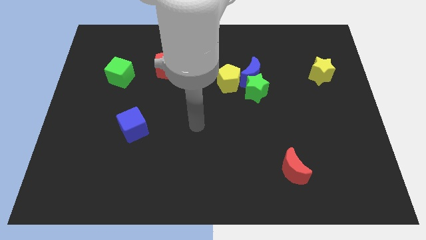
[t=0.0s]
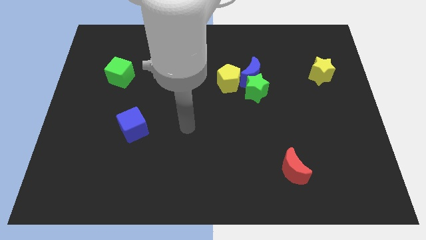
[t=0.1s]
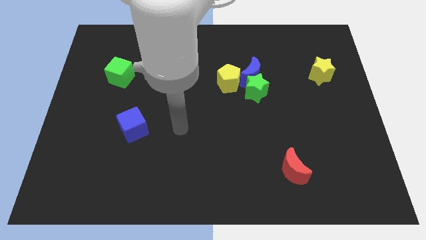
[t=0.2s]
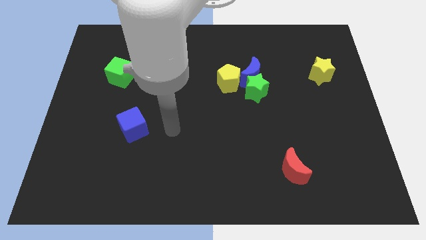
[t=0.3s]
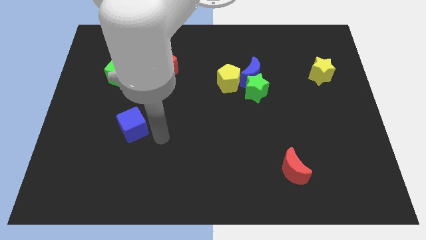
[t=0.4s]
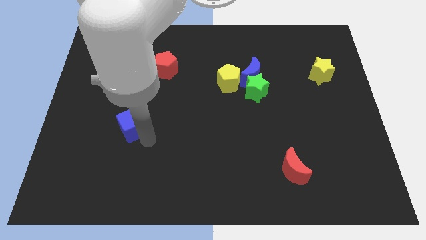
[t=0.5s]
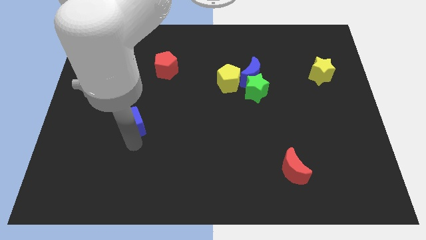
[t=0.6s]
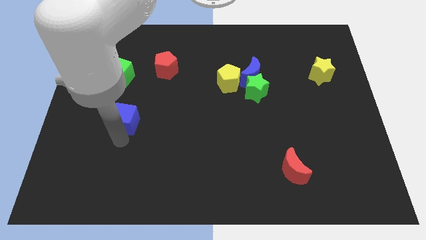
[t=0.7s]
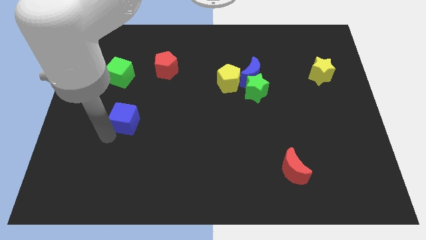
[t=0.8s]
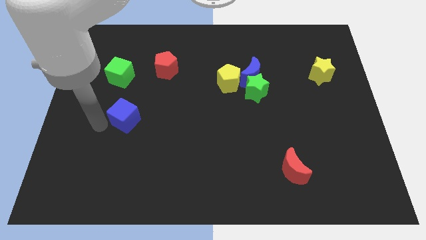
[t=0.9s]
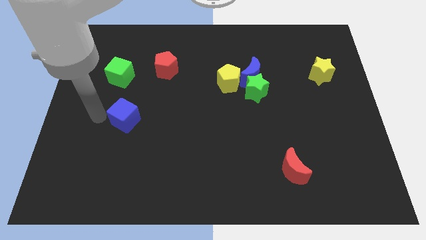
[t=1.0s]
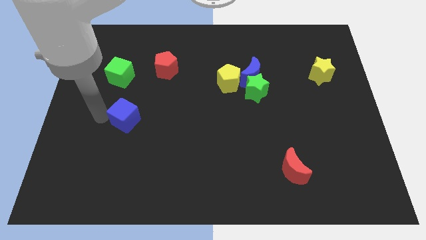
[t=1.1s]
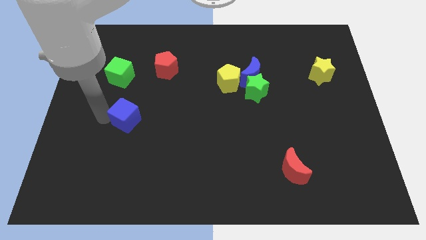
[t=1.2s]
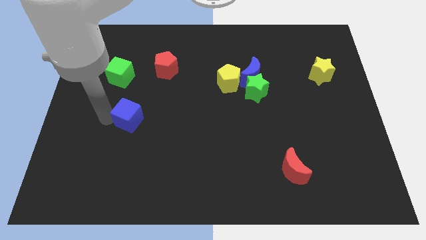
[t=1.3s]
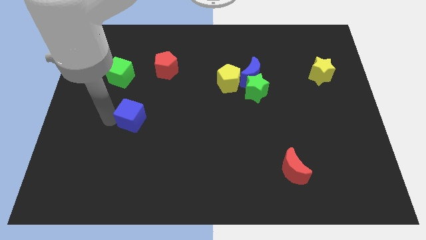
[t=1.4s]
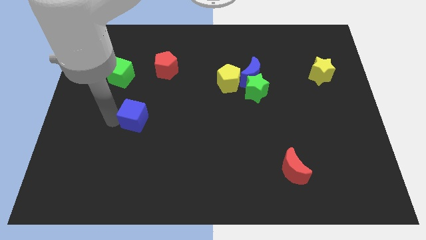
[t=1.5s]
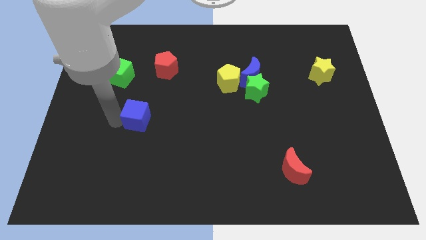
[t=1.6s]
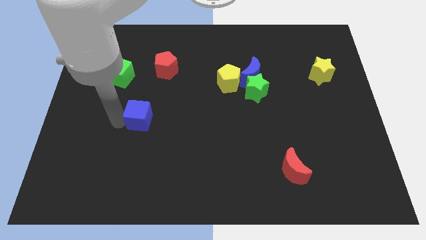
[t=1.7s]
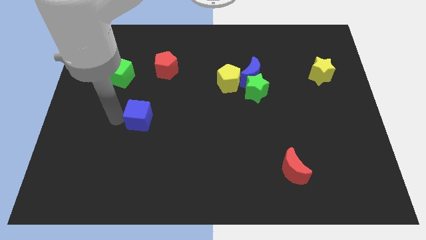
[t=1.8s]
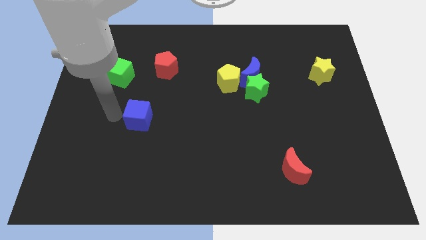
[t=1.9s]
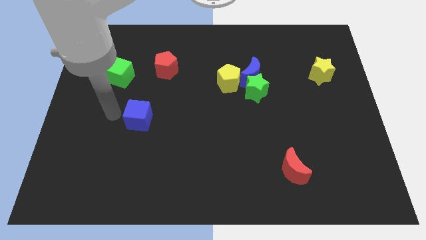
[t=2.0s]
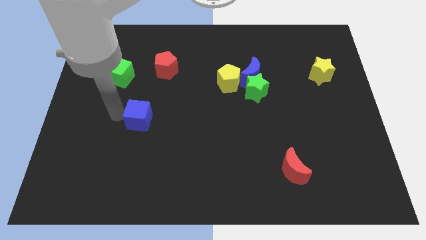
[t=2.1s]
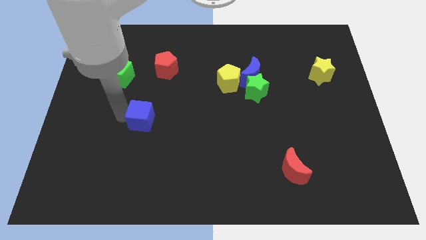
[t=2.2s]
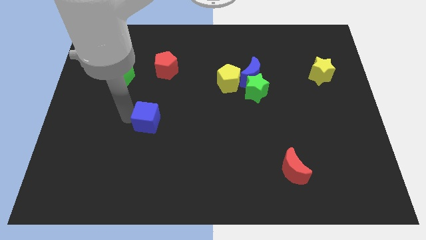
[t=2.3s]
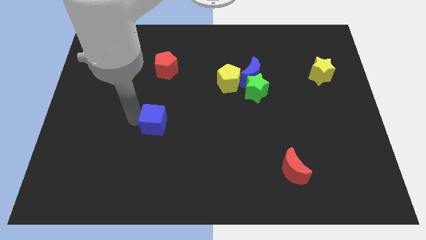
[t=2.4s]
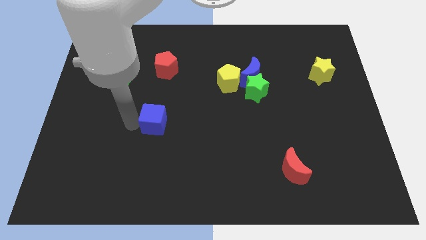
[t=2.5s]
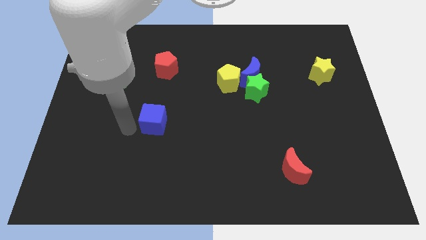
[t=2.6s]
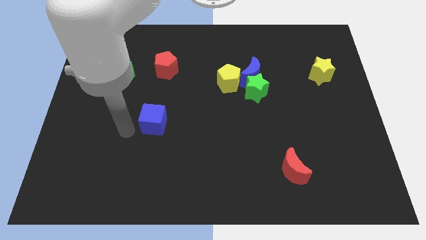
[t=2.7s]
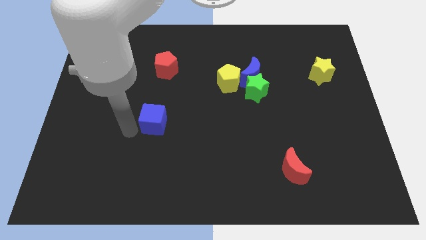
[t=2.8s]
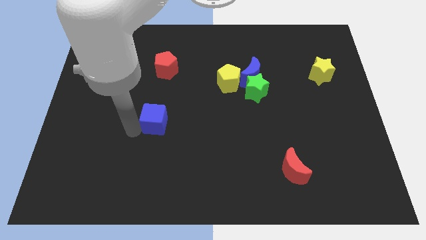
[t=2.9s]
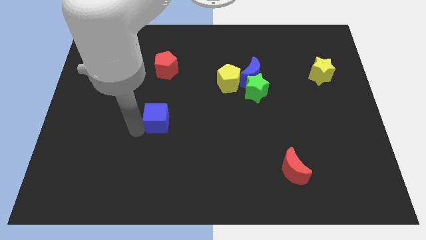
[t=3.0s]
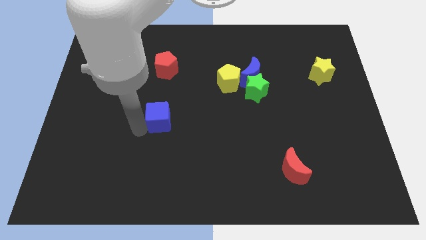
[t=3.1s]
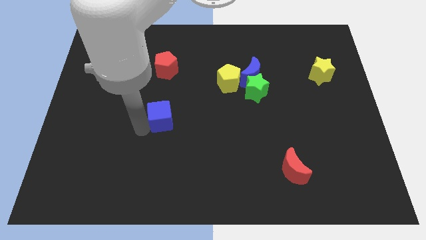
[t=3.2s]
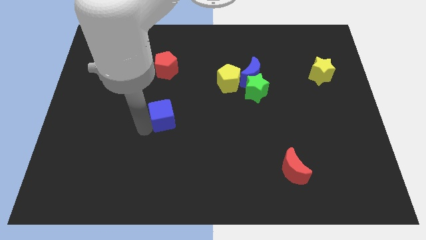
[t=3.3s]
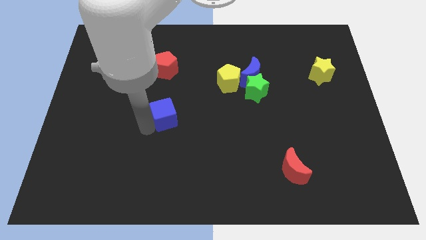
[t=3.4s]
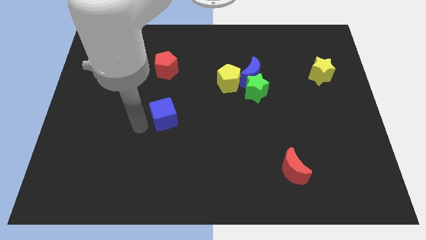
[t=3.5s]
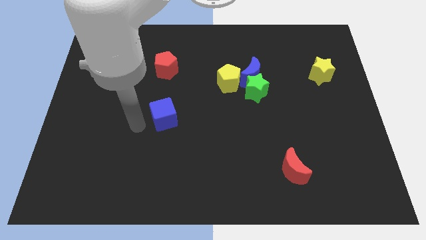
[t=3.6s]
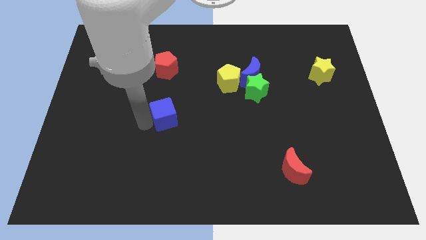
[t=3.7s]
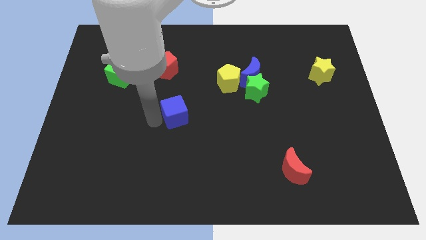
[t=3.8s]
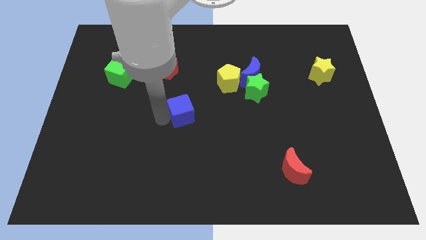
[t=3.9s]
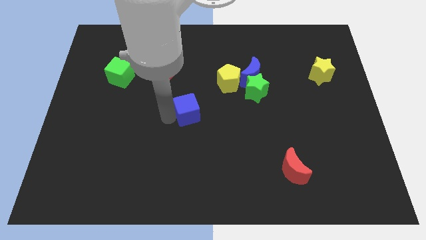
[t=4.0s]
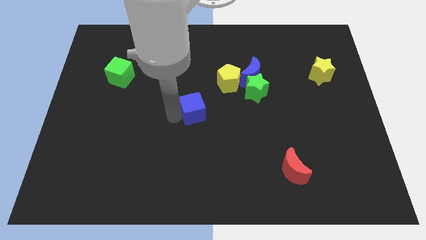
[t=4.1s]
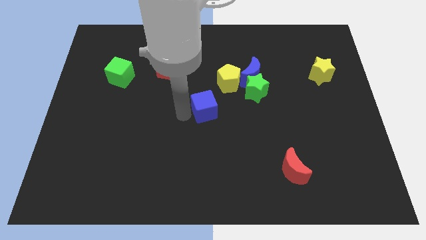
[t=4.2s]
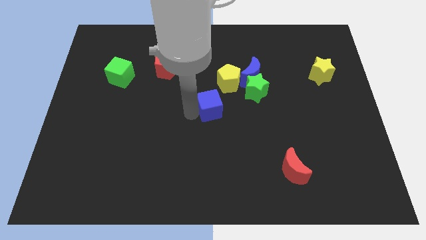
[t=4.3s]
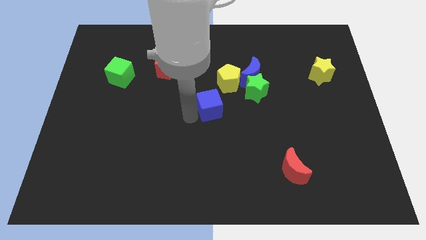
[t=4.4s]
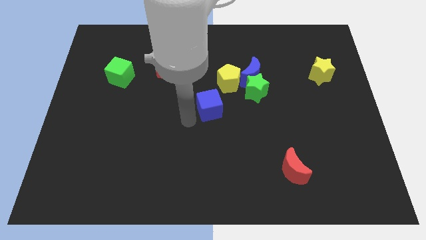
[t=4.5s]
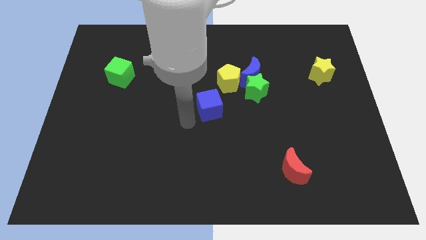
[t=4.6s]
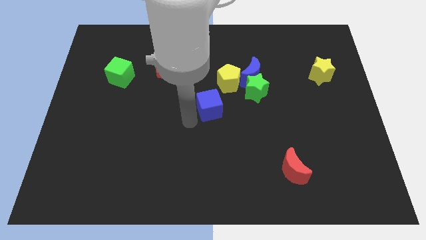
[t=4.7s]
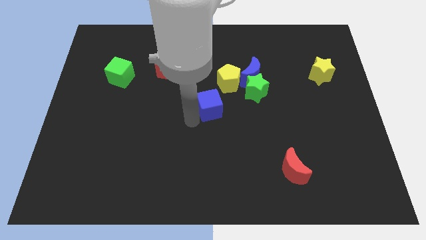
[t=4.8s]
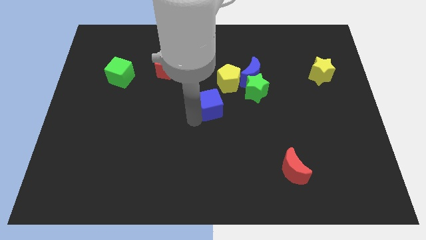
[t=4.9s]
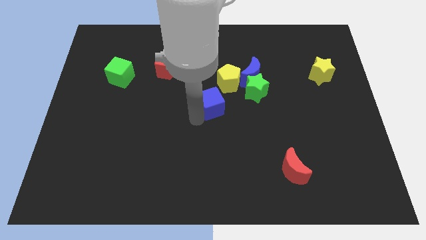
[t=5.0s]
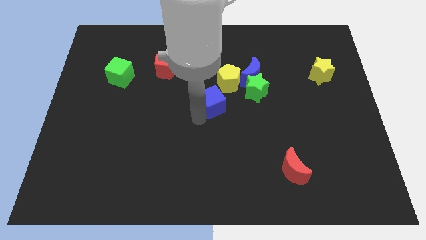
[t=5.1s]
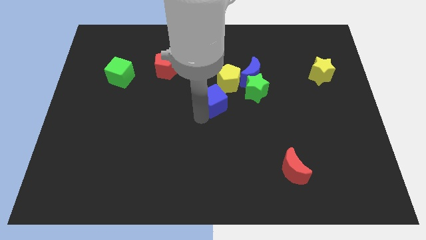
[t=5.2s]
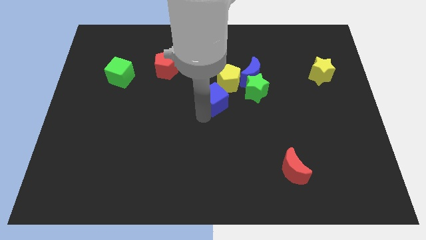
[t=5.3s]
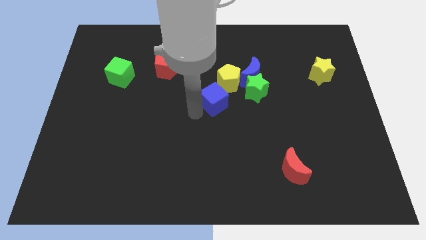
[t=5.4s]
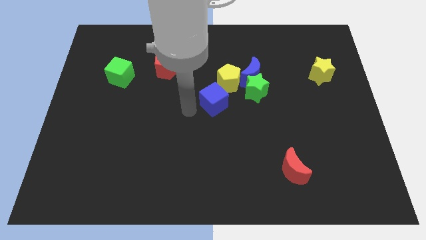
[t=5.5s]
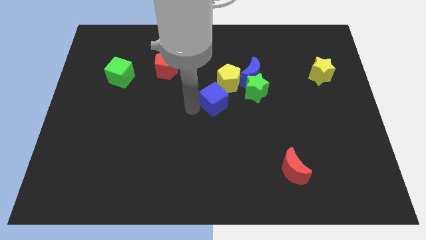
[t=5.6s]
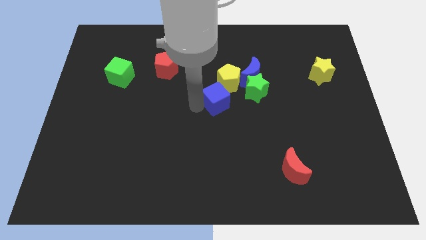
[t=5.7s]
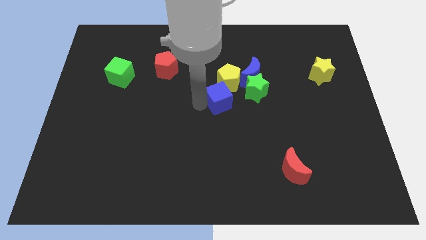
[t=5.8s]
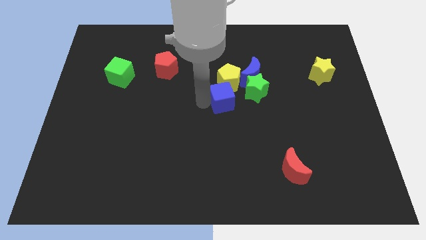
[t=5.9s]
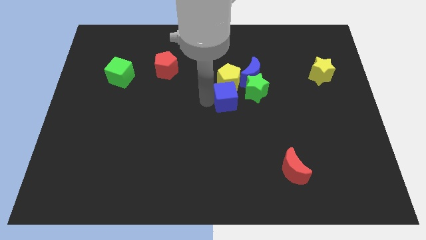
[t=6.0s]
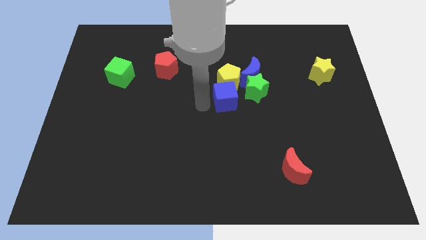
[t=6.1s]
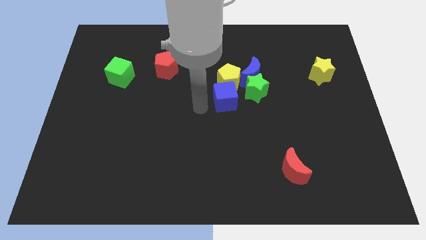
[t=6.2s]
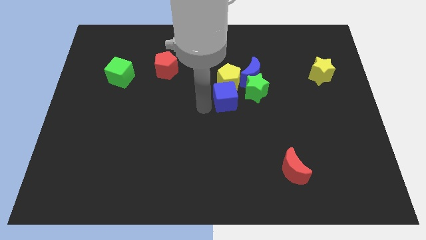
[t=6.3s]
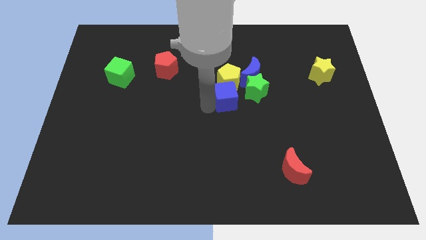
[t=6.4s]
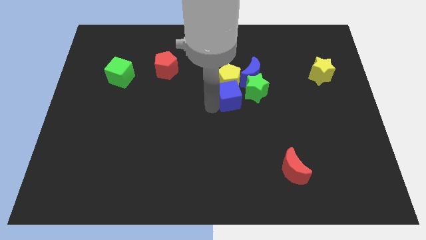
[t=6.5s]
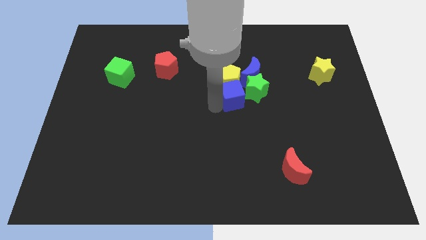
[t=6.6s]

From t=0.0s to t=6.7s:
push the blue cube next to the green star
